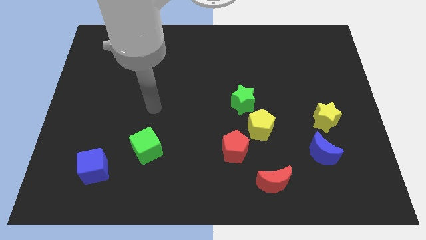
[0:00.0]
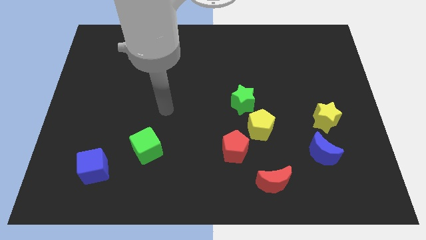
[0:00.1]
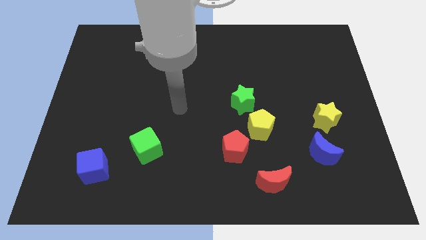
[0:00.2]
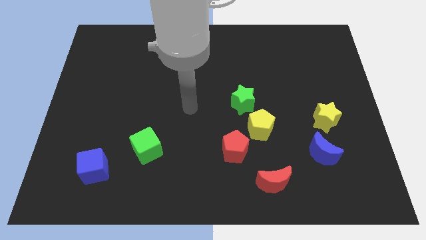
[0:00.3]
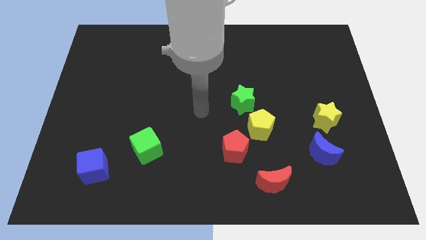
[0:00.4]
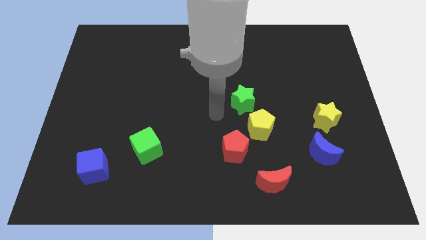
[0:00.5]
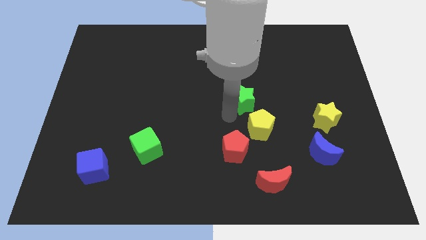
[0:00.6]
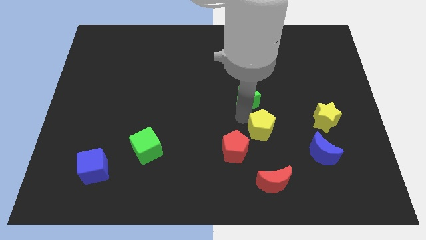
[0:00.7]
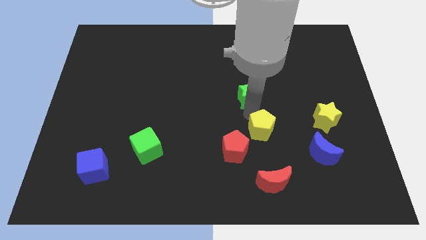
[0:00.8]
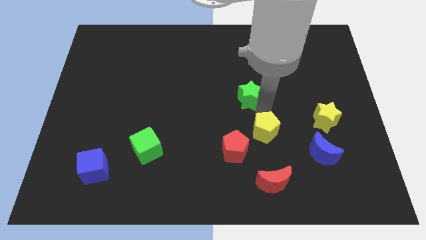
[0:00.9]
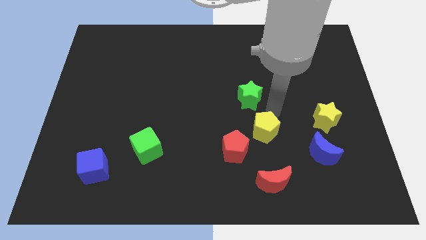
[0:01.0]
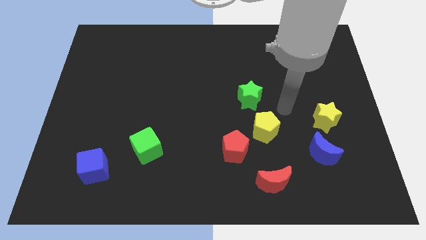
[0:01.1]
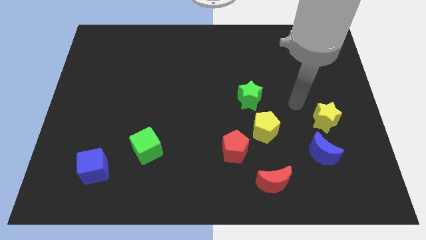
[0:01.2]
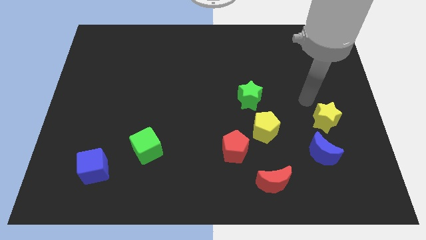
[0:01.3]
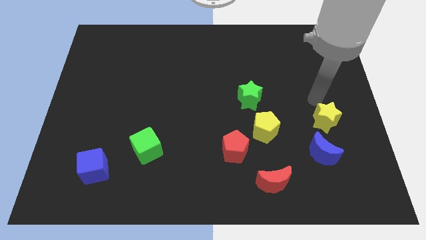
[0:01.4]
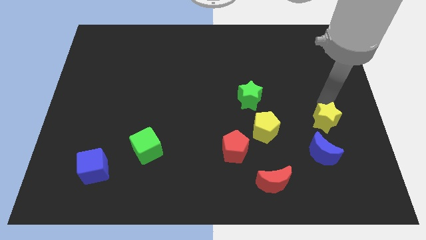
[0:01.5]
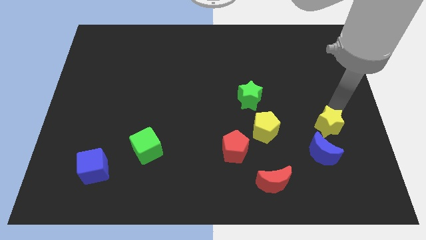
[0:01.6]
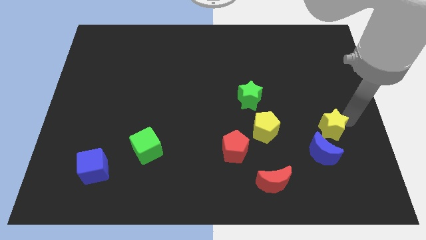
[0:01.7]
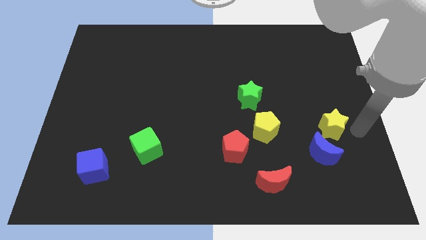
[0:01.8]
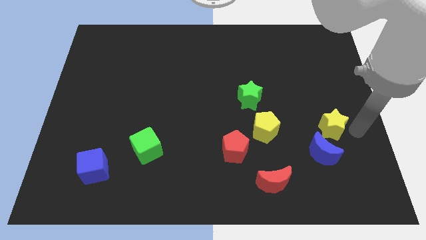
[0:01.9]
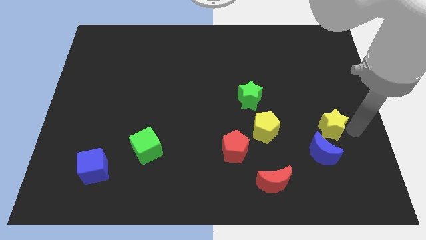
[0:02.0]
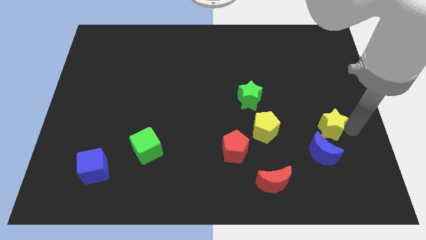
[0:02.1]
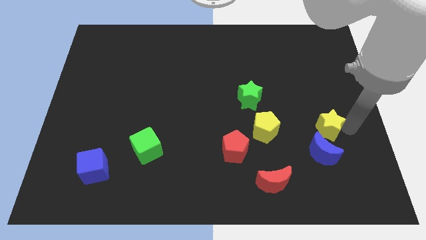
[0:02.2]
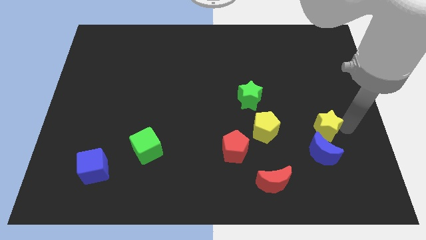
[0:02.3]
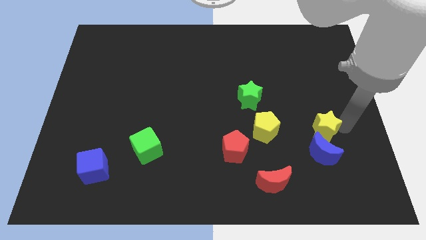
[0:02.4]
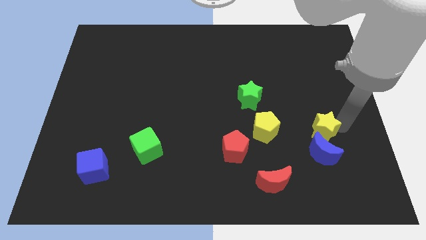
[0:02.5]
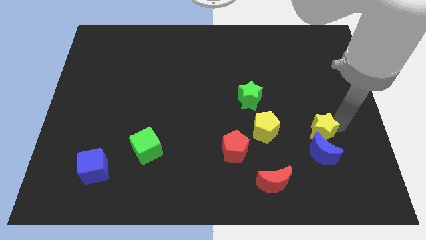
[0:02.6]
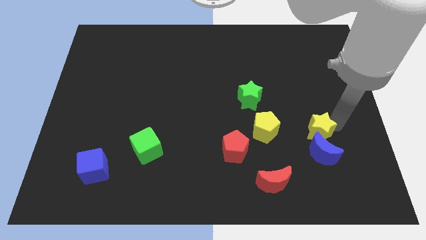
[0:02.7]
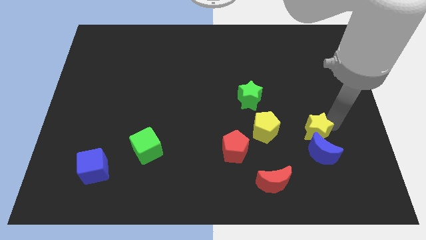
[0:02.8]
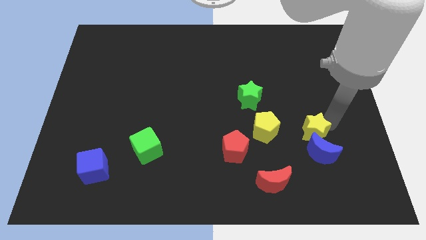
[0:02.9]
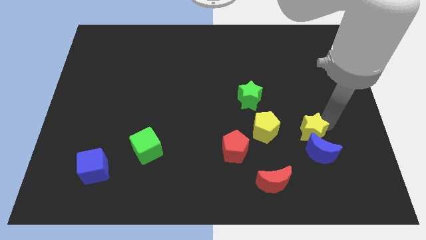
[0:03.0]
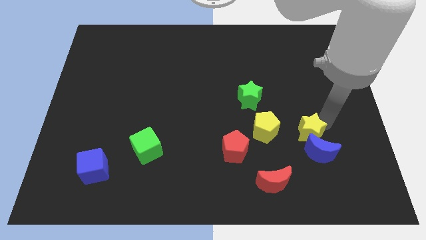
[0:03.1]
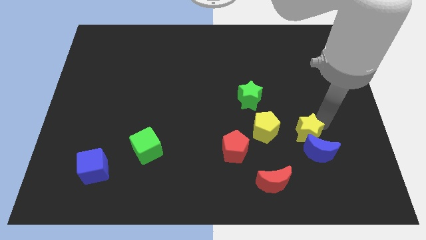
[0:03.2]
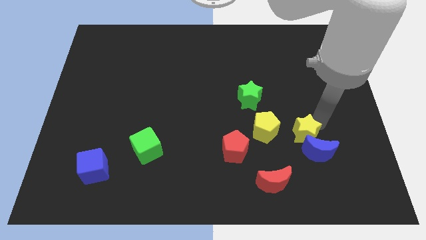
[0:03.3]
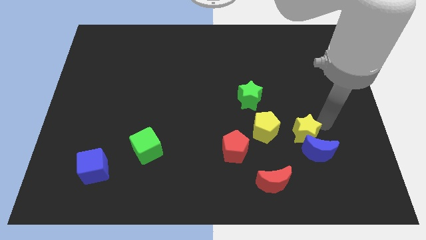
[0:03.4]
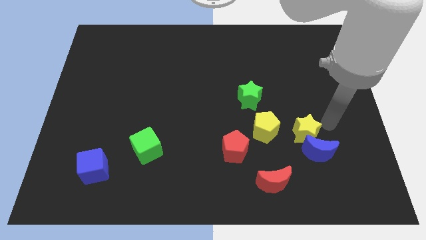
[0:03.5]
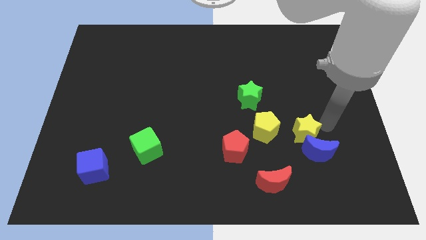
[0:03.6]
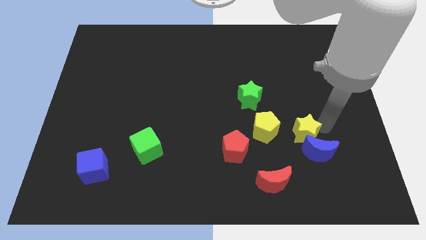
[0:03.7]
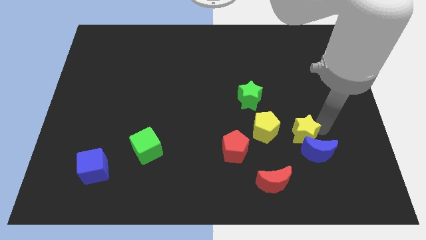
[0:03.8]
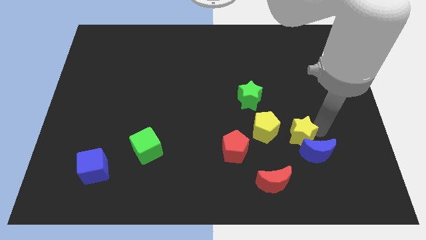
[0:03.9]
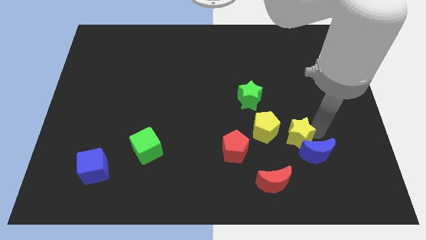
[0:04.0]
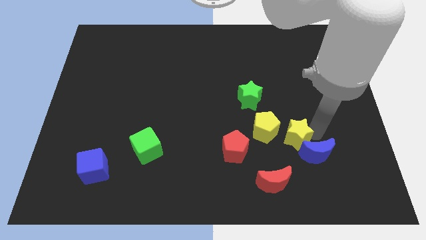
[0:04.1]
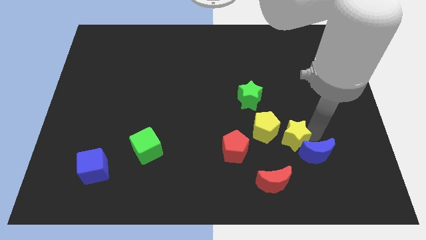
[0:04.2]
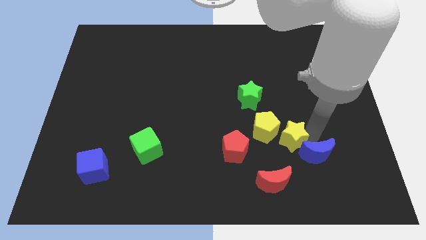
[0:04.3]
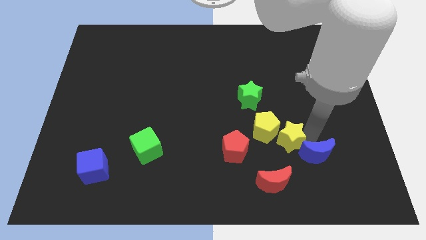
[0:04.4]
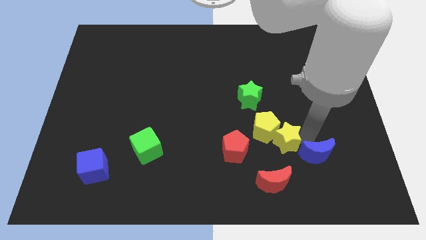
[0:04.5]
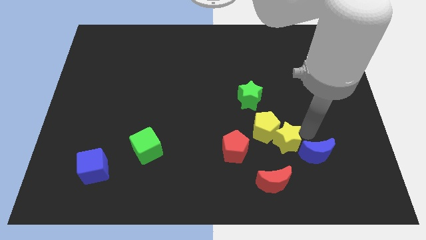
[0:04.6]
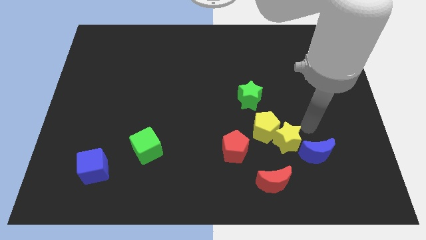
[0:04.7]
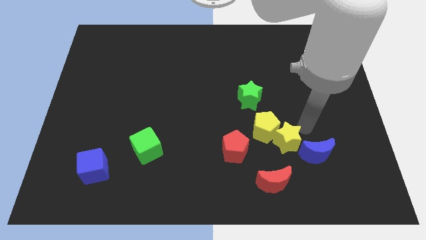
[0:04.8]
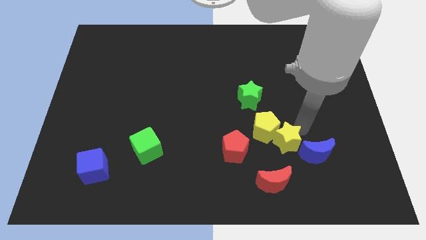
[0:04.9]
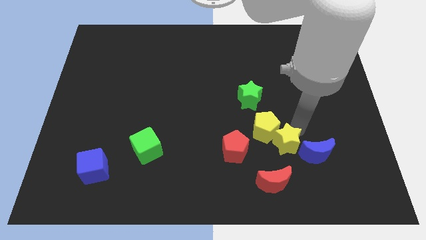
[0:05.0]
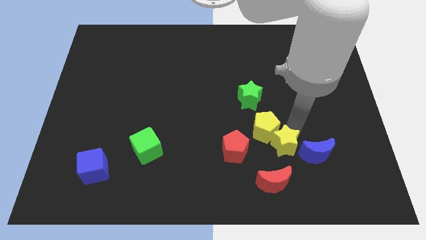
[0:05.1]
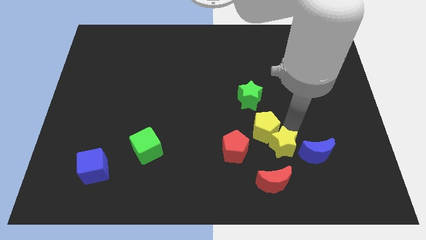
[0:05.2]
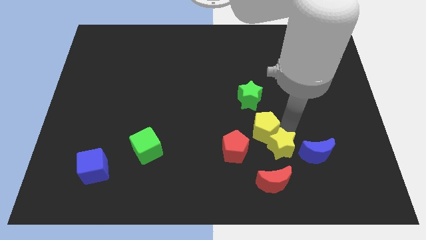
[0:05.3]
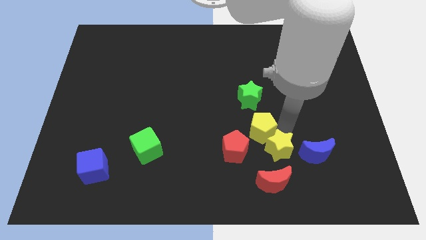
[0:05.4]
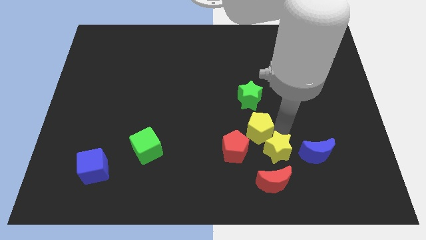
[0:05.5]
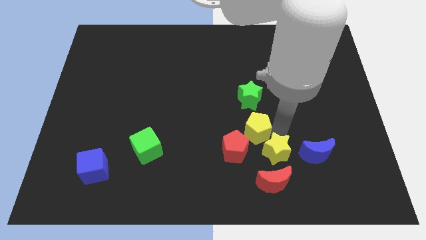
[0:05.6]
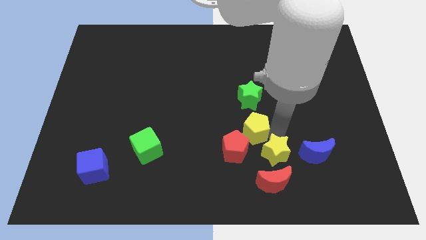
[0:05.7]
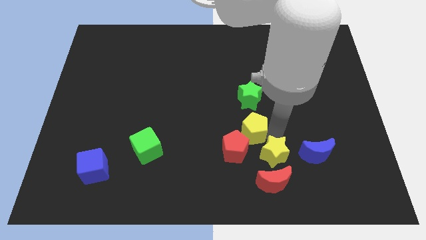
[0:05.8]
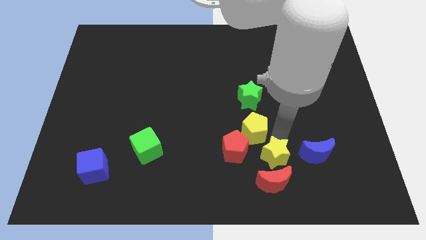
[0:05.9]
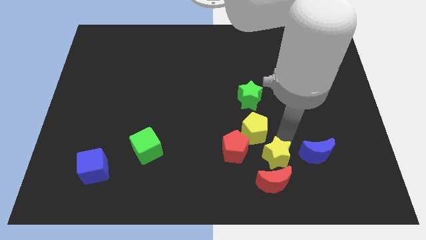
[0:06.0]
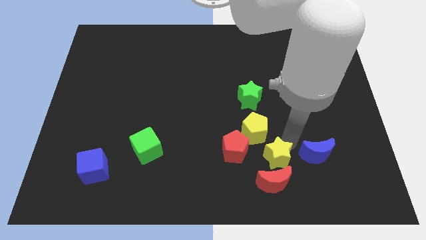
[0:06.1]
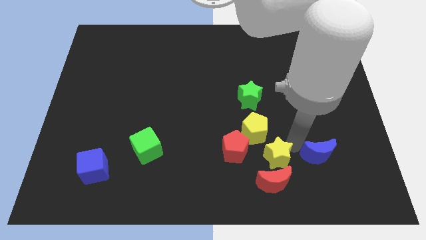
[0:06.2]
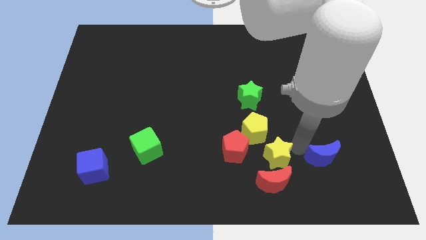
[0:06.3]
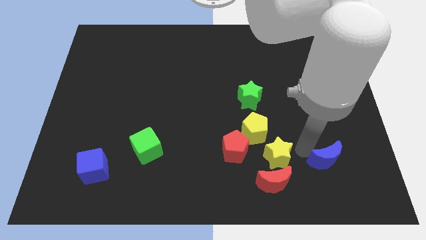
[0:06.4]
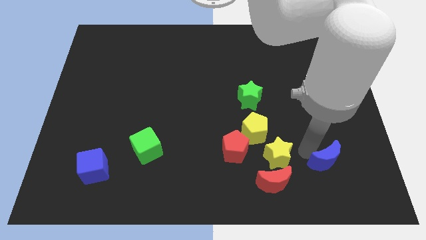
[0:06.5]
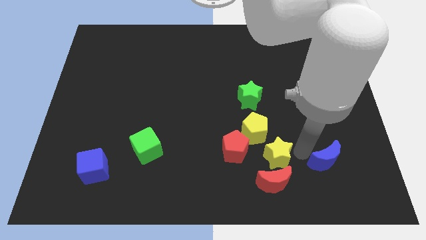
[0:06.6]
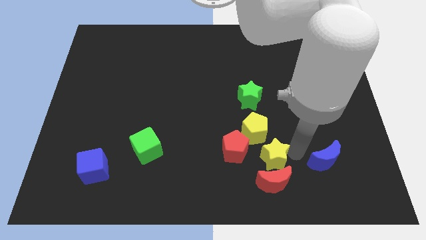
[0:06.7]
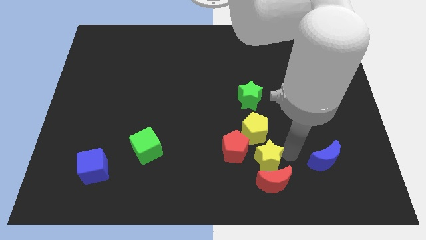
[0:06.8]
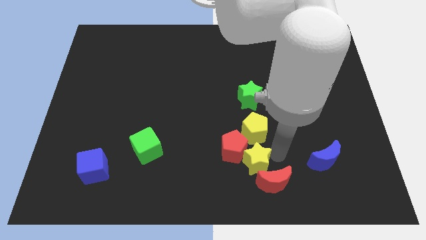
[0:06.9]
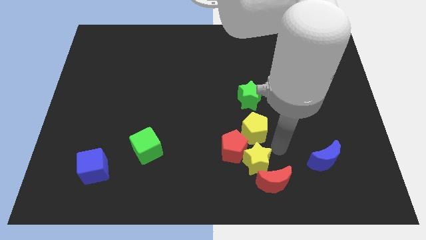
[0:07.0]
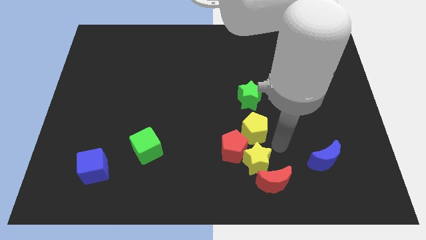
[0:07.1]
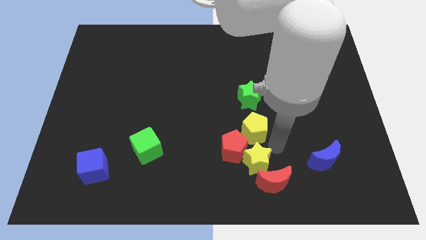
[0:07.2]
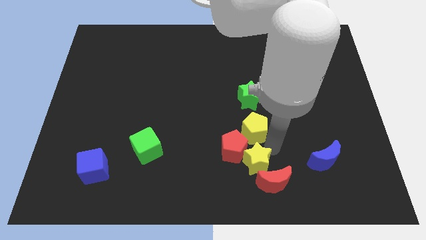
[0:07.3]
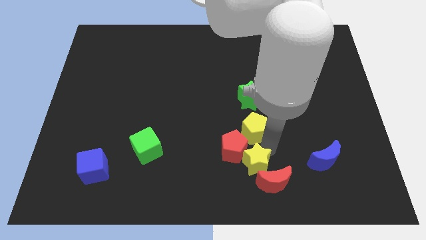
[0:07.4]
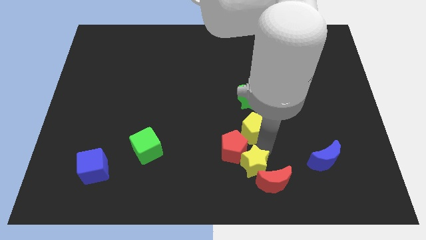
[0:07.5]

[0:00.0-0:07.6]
move the yellow star to the left side of the red moon
